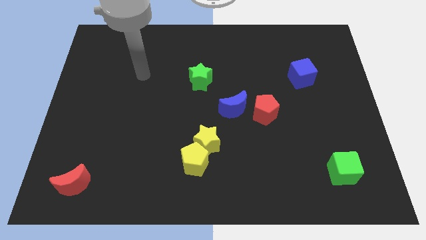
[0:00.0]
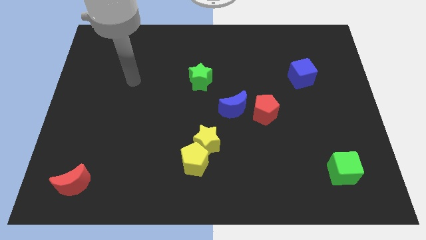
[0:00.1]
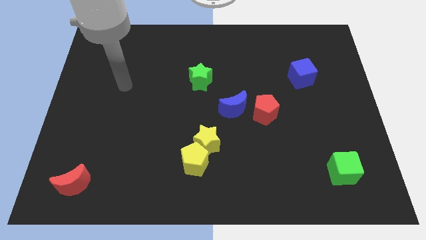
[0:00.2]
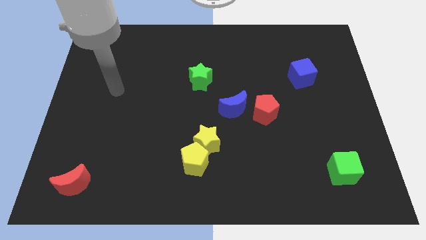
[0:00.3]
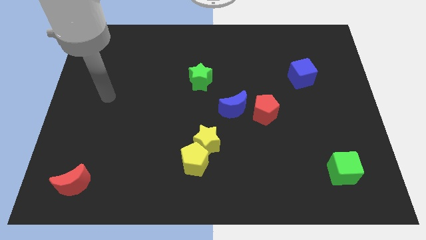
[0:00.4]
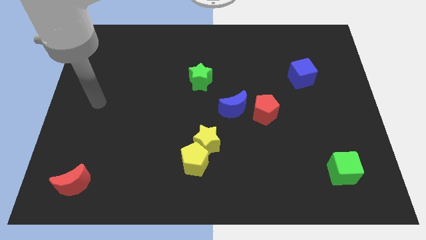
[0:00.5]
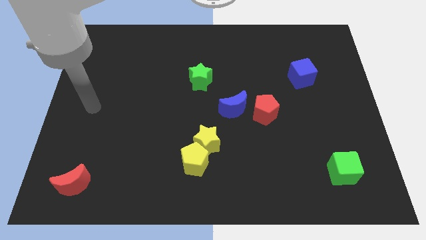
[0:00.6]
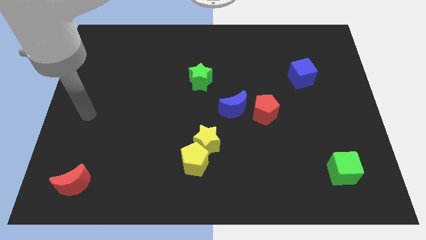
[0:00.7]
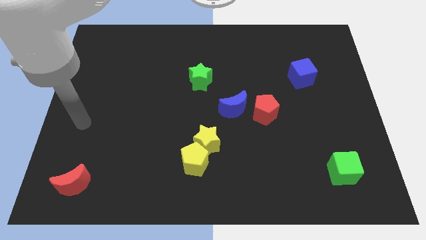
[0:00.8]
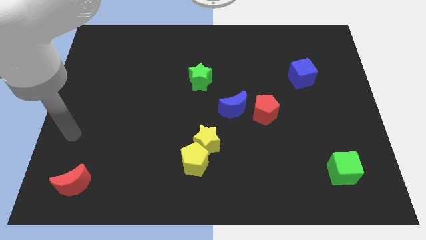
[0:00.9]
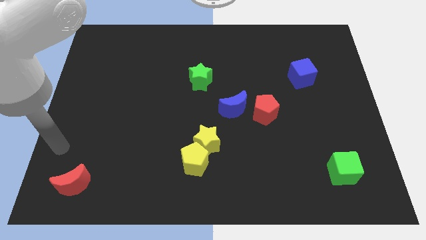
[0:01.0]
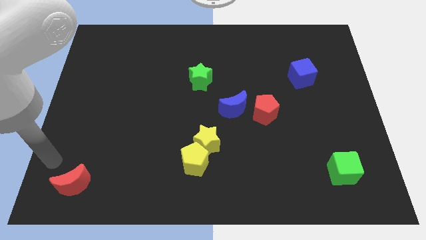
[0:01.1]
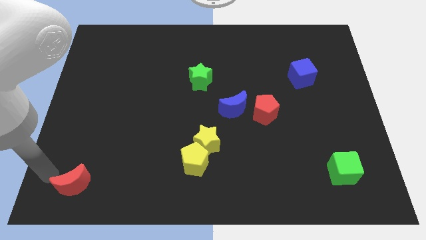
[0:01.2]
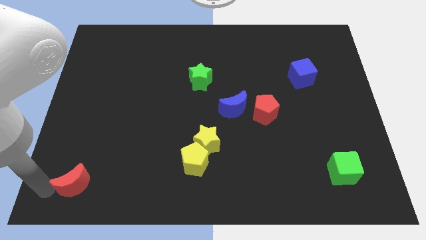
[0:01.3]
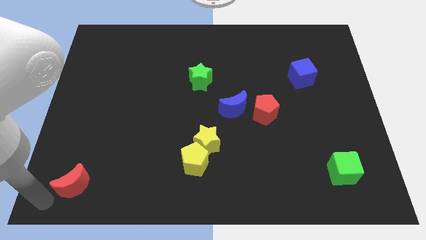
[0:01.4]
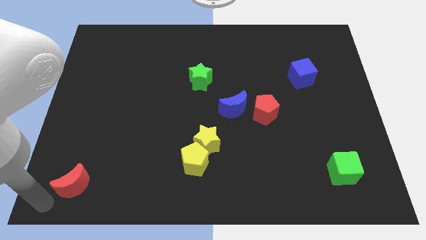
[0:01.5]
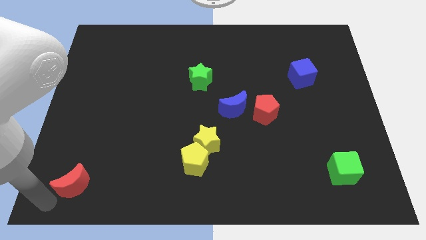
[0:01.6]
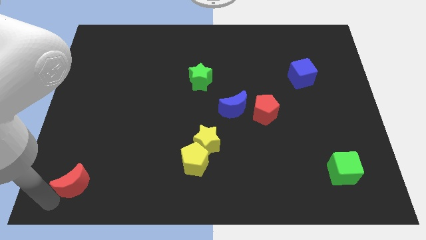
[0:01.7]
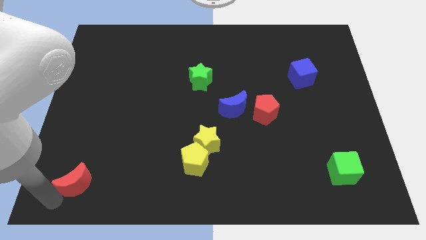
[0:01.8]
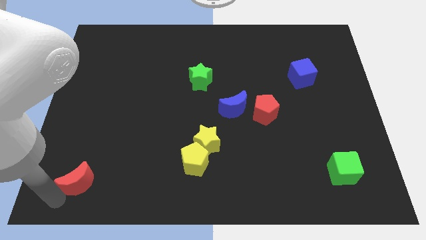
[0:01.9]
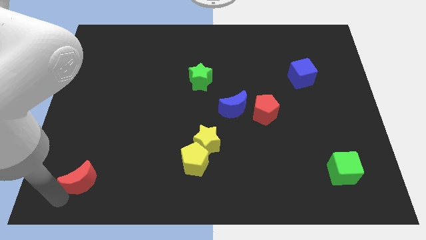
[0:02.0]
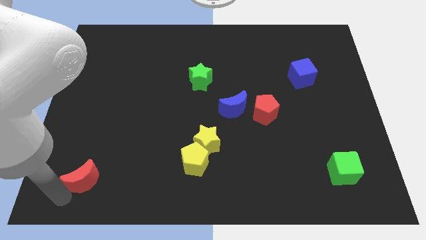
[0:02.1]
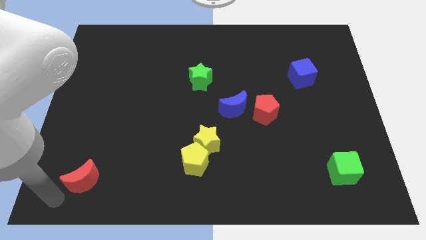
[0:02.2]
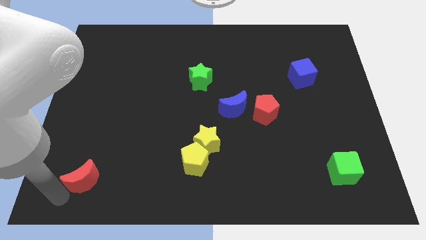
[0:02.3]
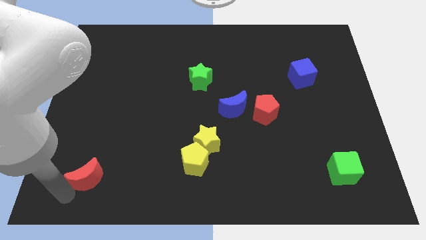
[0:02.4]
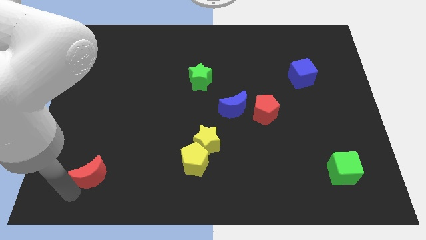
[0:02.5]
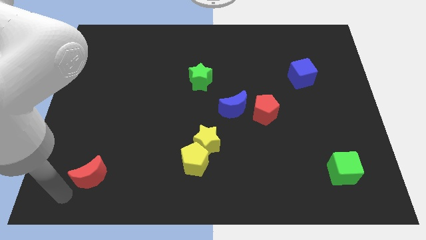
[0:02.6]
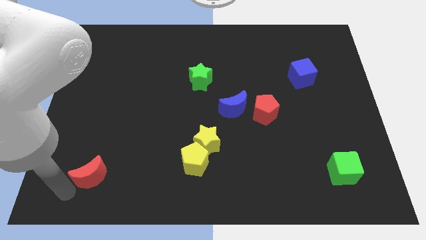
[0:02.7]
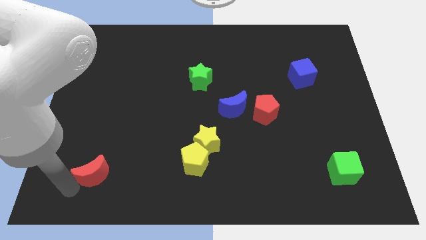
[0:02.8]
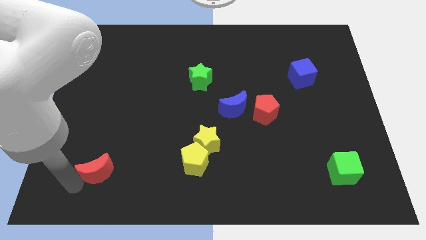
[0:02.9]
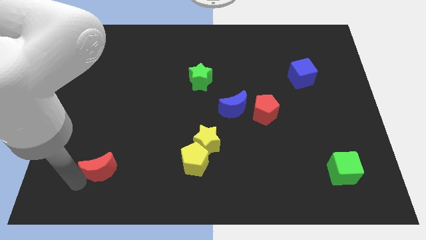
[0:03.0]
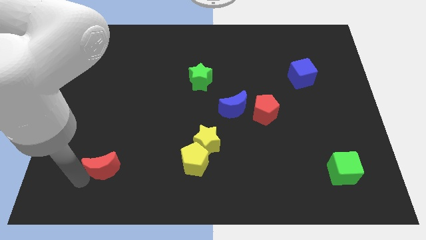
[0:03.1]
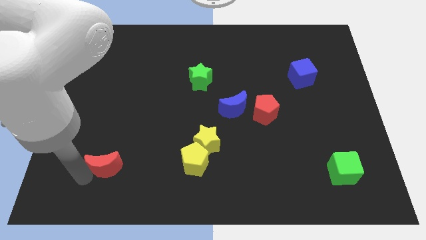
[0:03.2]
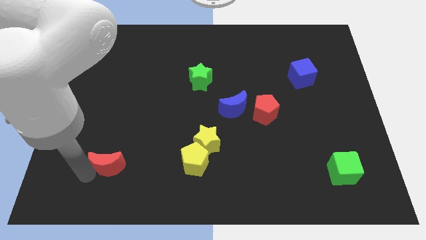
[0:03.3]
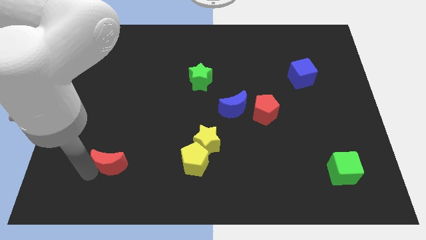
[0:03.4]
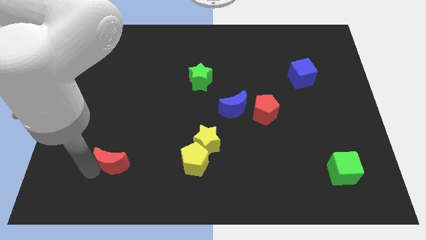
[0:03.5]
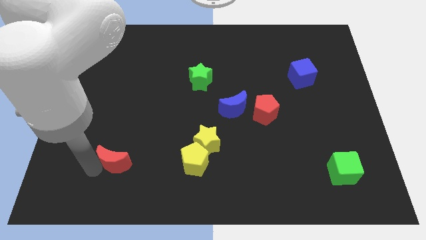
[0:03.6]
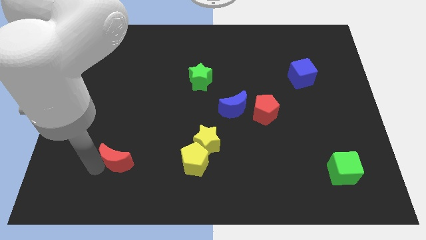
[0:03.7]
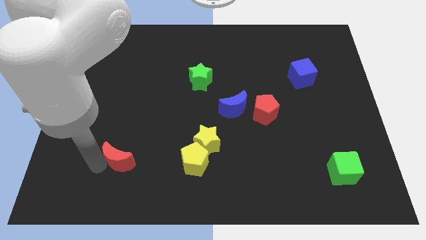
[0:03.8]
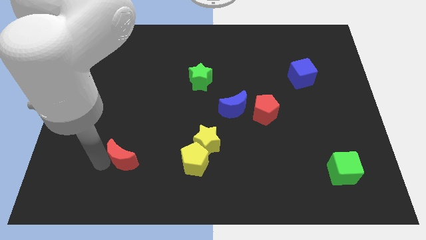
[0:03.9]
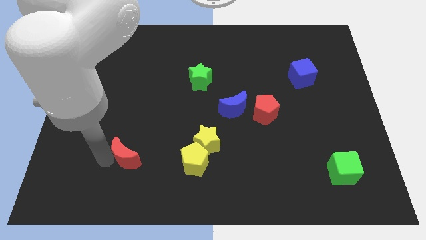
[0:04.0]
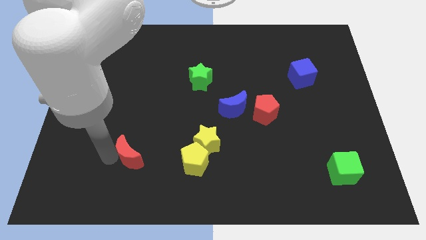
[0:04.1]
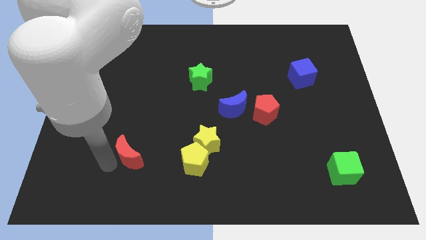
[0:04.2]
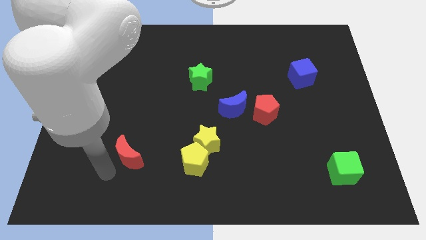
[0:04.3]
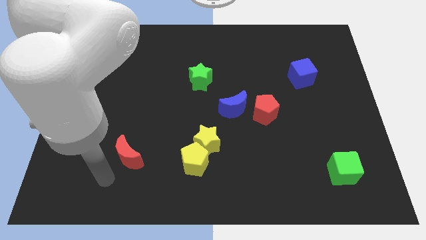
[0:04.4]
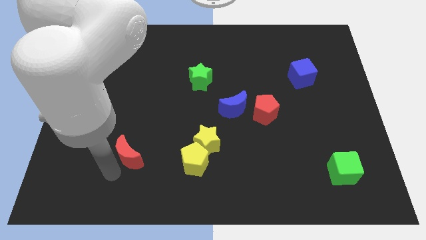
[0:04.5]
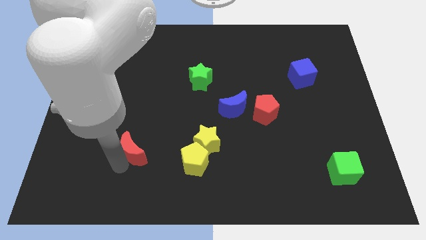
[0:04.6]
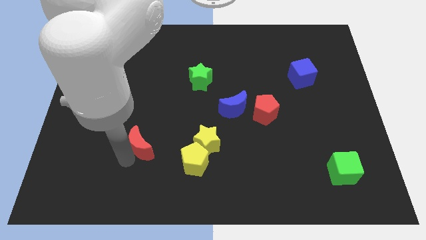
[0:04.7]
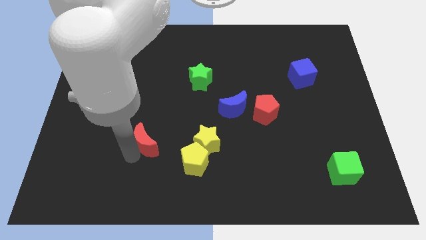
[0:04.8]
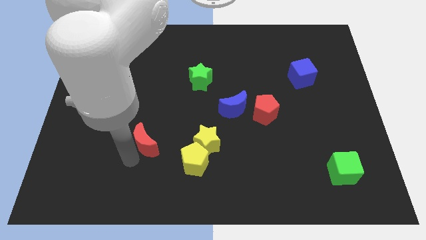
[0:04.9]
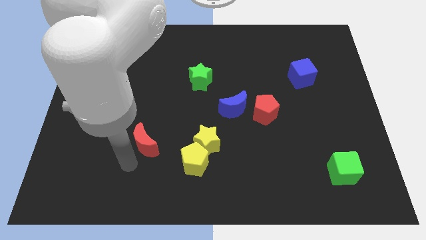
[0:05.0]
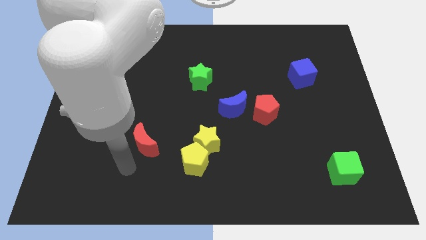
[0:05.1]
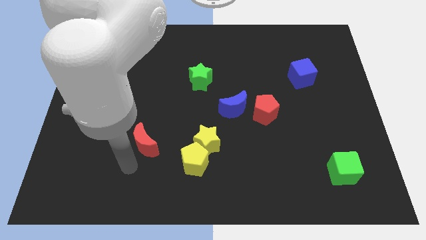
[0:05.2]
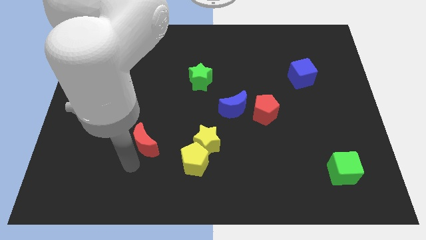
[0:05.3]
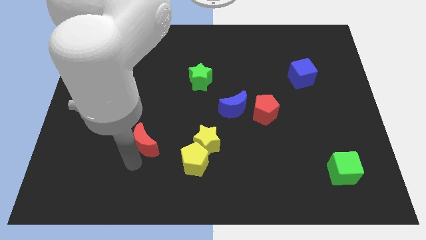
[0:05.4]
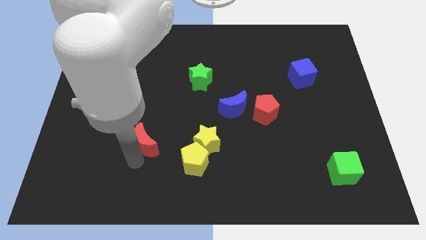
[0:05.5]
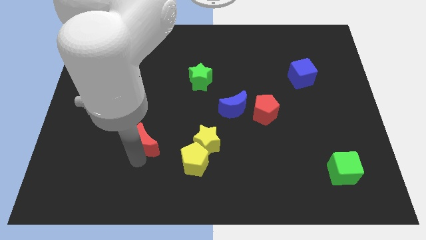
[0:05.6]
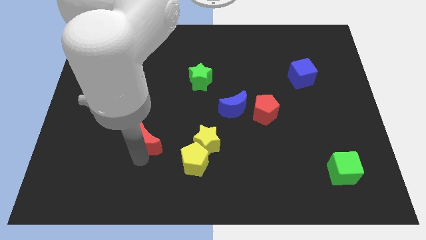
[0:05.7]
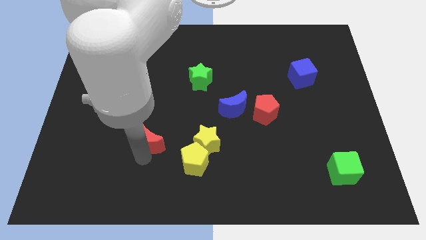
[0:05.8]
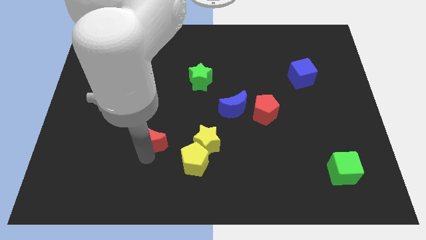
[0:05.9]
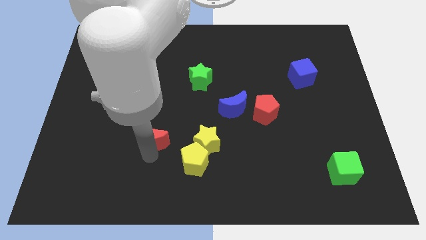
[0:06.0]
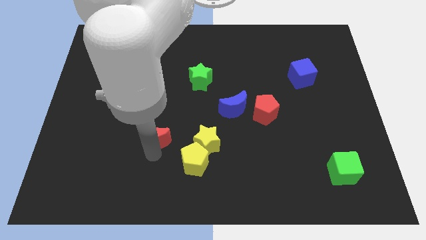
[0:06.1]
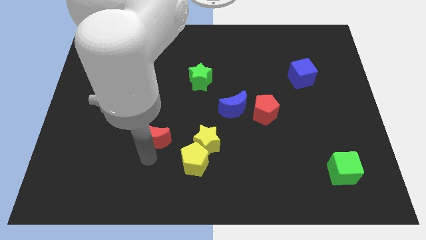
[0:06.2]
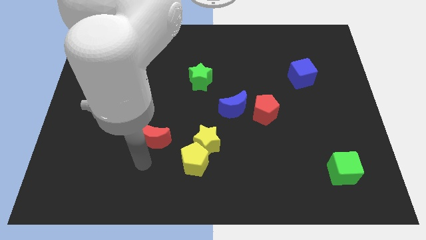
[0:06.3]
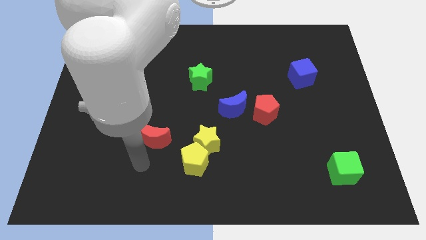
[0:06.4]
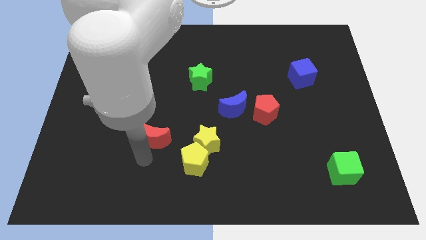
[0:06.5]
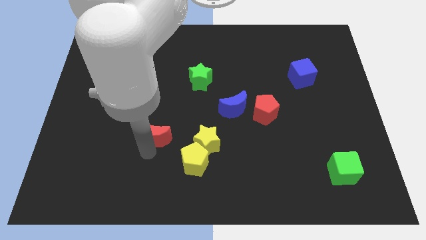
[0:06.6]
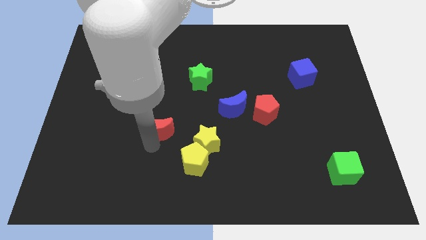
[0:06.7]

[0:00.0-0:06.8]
push the red moon diagonally up and right

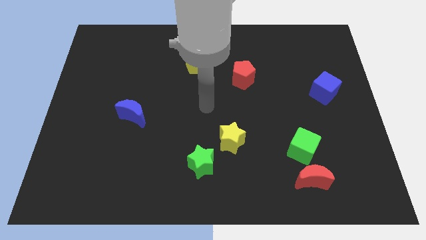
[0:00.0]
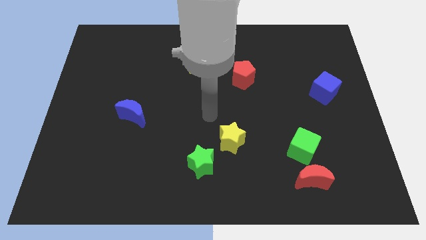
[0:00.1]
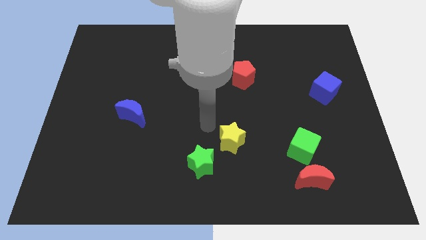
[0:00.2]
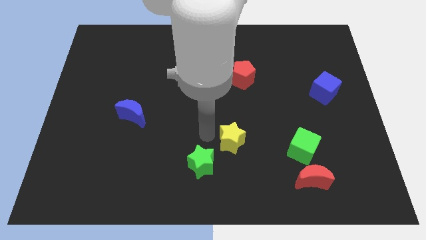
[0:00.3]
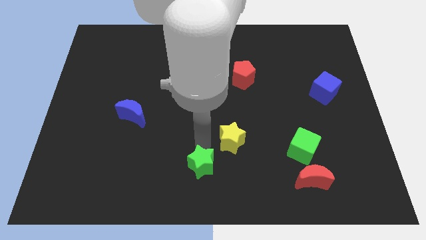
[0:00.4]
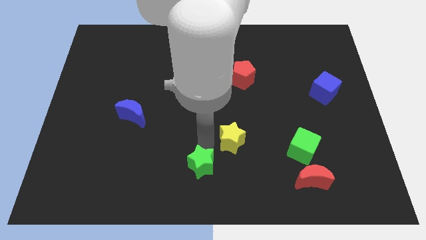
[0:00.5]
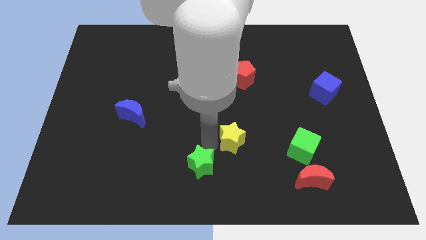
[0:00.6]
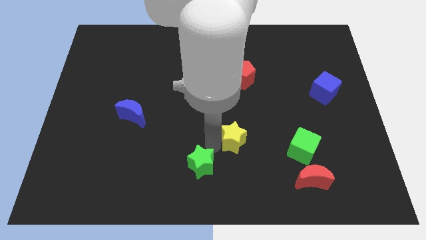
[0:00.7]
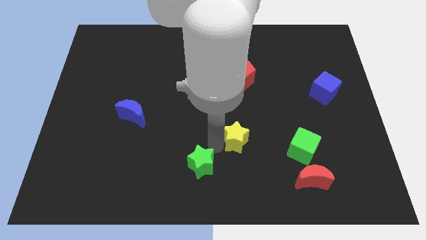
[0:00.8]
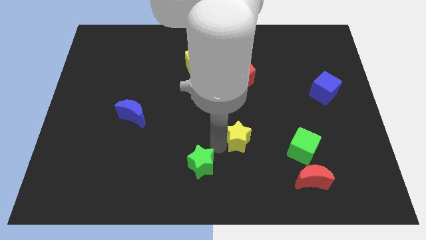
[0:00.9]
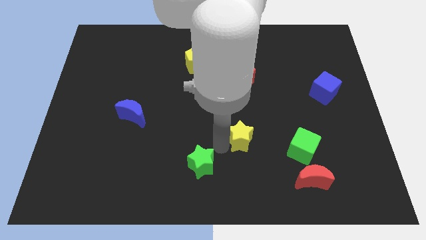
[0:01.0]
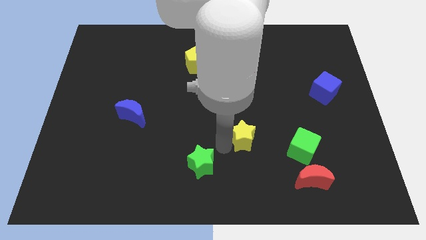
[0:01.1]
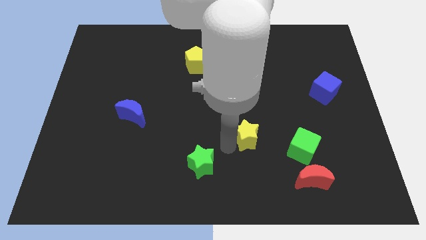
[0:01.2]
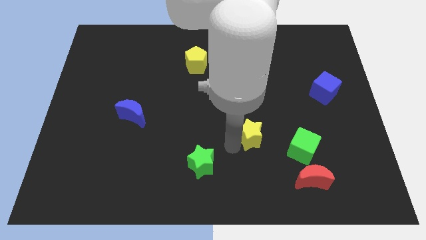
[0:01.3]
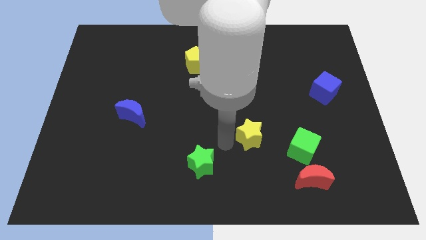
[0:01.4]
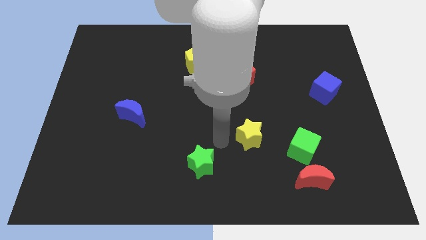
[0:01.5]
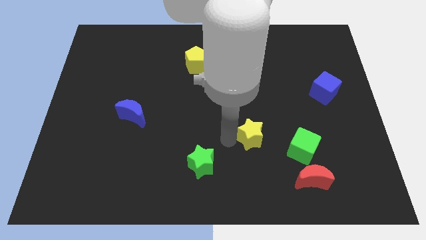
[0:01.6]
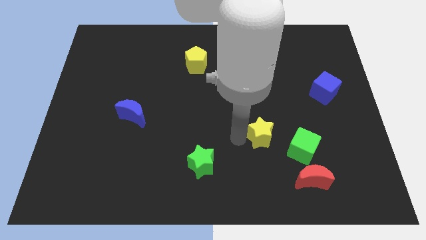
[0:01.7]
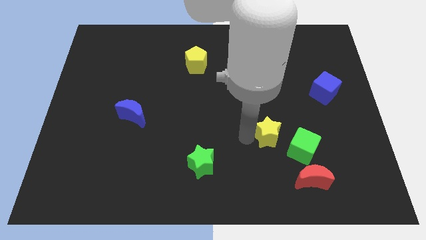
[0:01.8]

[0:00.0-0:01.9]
push the yellow star somewhat to the right
